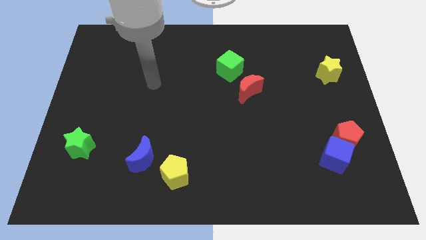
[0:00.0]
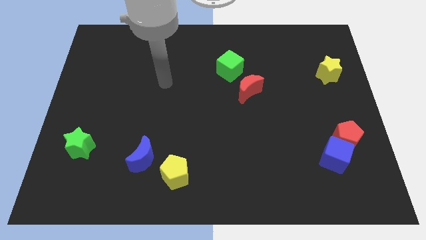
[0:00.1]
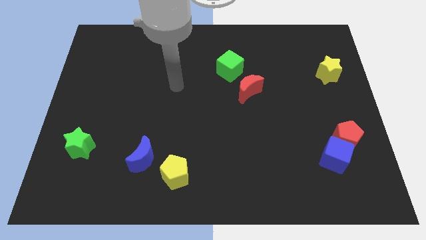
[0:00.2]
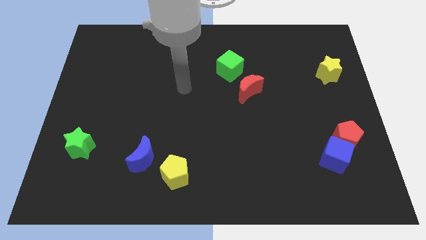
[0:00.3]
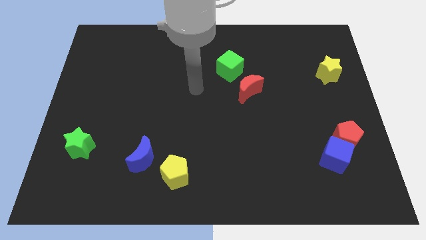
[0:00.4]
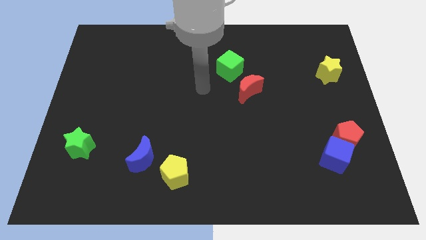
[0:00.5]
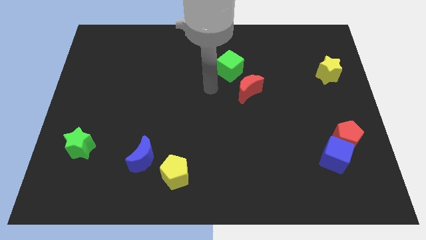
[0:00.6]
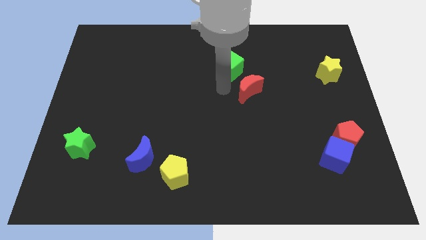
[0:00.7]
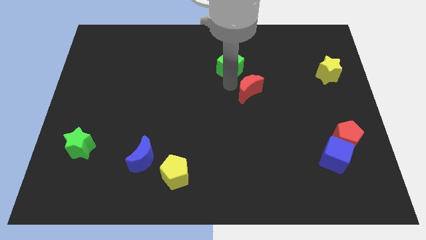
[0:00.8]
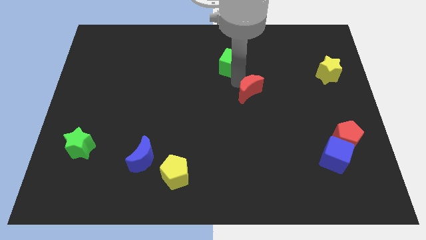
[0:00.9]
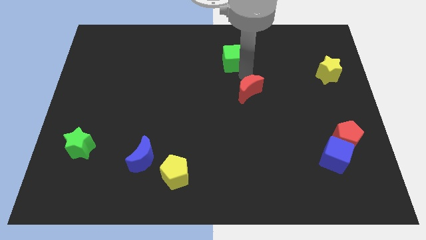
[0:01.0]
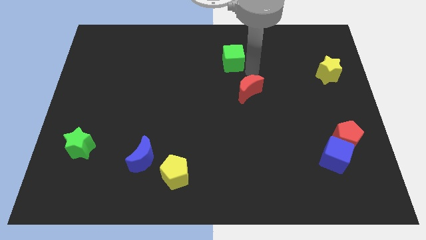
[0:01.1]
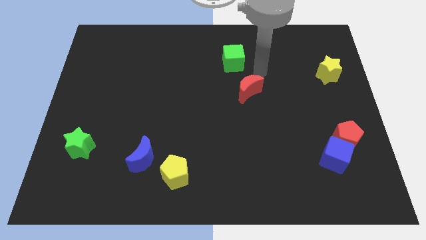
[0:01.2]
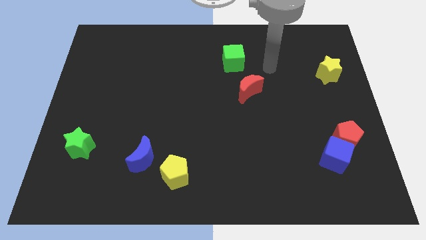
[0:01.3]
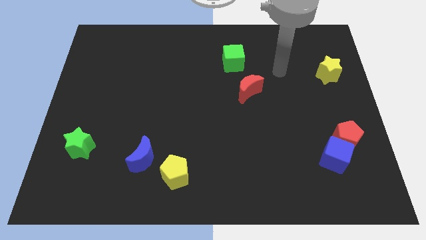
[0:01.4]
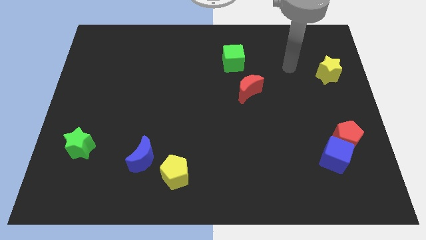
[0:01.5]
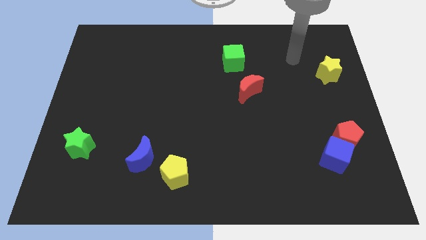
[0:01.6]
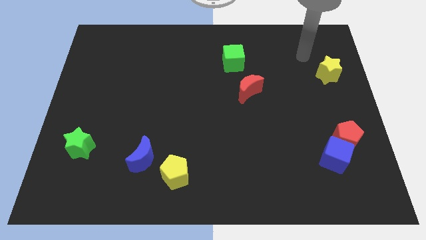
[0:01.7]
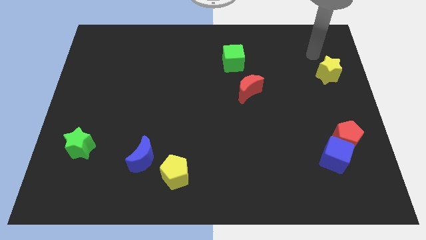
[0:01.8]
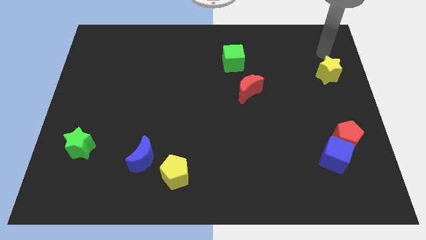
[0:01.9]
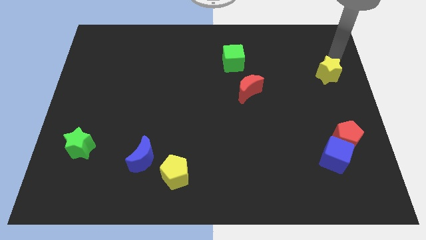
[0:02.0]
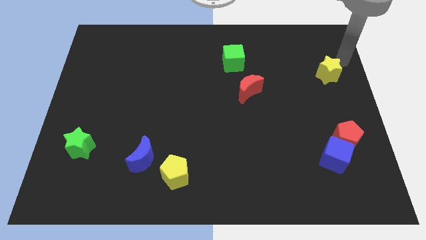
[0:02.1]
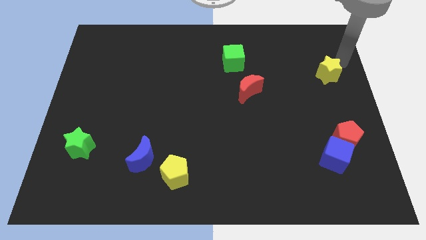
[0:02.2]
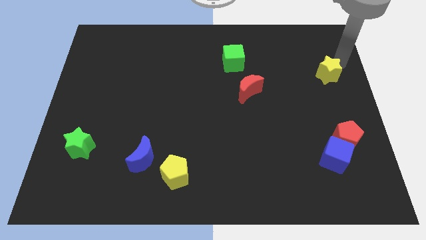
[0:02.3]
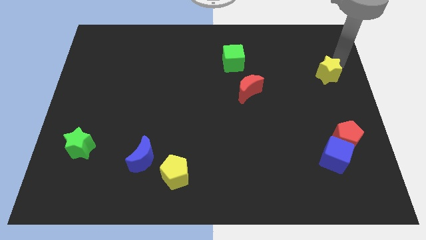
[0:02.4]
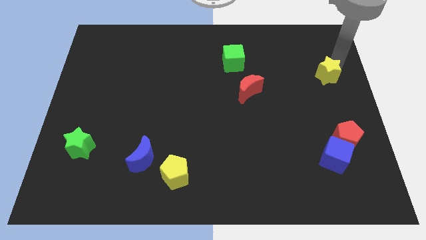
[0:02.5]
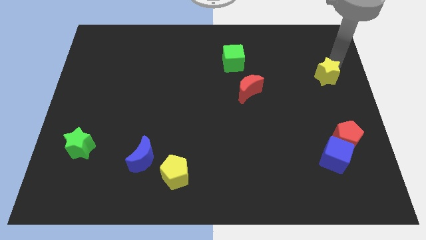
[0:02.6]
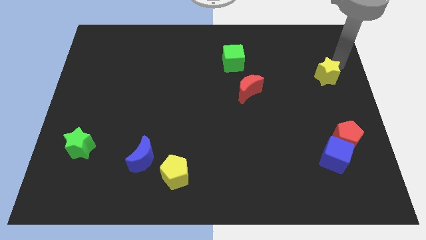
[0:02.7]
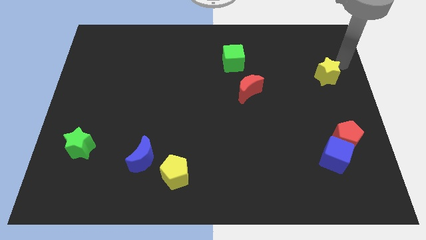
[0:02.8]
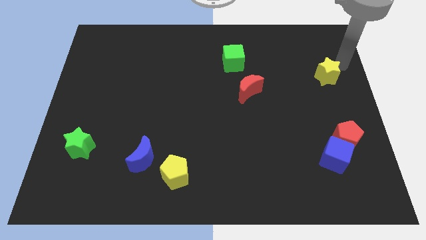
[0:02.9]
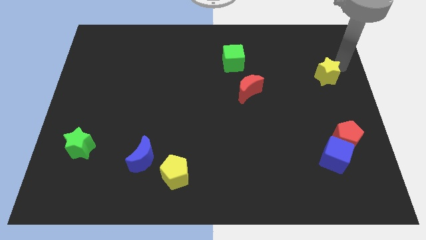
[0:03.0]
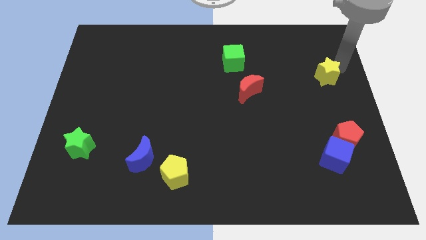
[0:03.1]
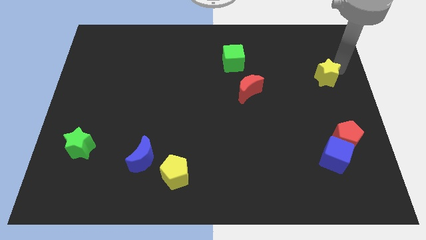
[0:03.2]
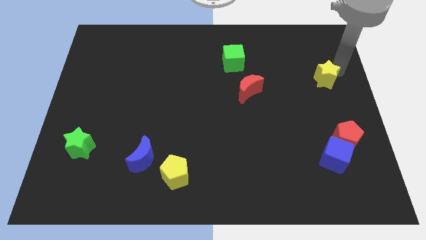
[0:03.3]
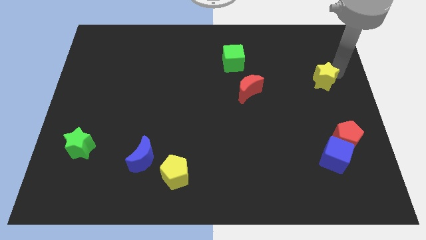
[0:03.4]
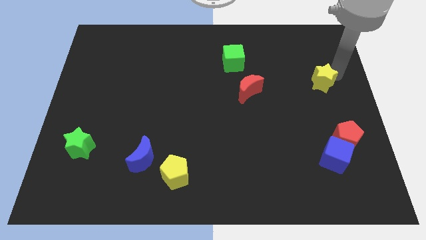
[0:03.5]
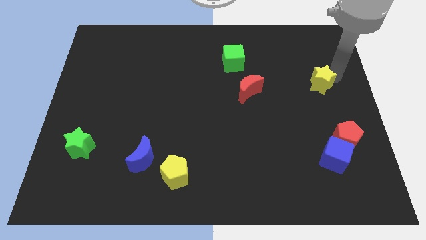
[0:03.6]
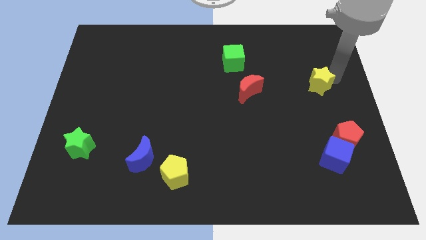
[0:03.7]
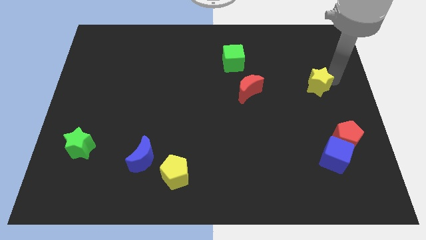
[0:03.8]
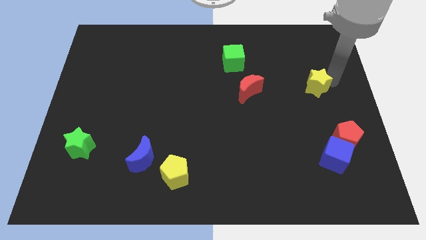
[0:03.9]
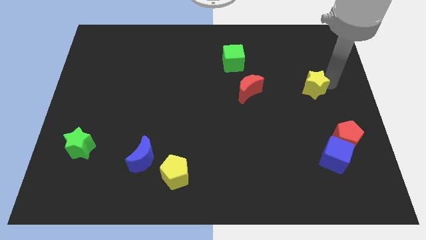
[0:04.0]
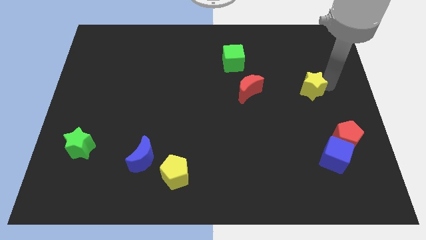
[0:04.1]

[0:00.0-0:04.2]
slightly push the yellow star diagonally down and left

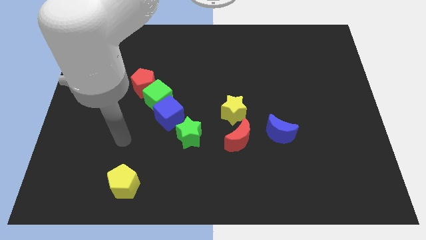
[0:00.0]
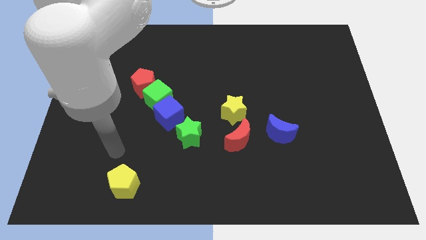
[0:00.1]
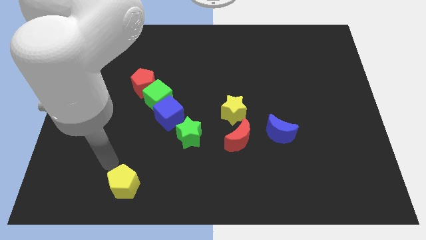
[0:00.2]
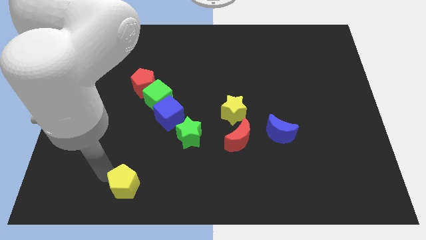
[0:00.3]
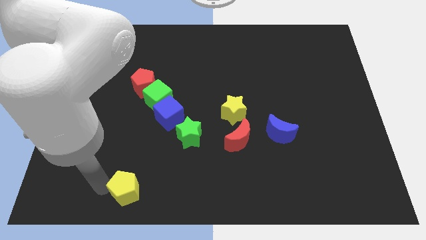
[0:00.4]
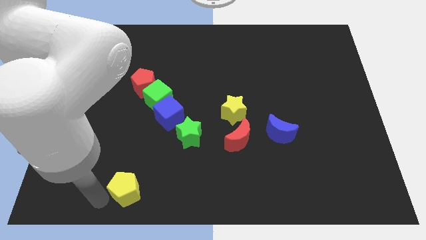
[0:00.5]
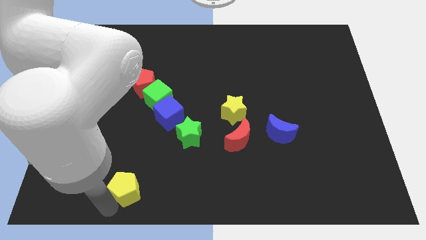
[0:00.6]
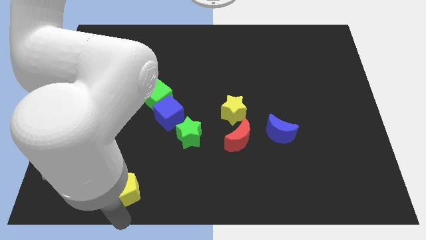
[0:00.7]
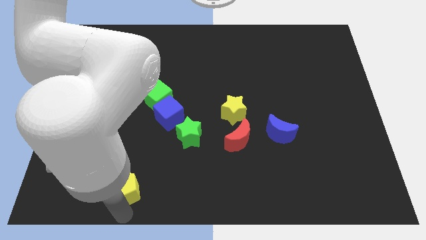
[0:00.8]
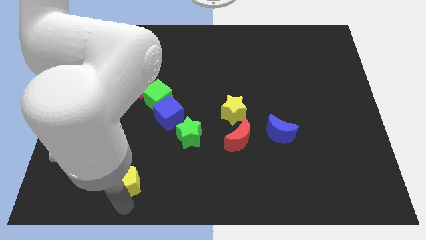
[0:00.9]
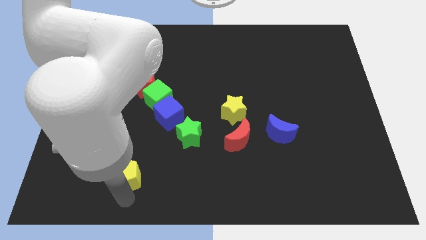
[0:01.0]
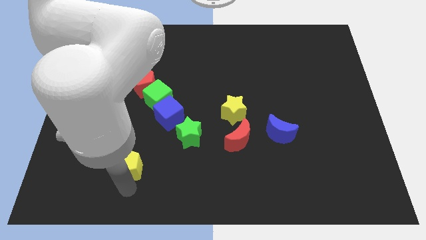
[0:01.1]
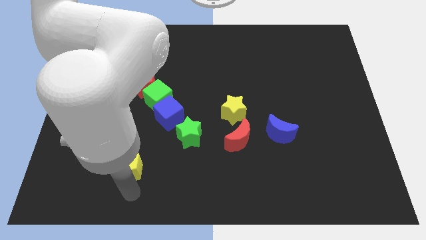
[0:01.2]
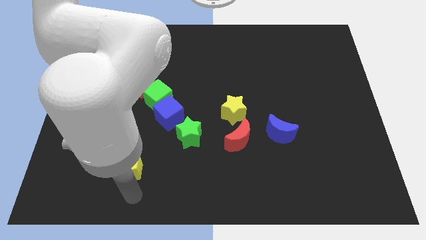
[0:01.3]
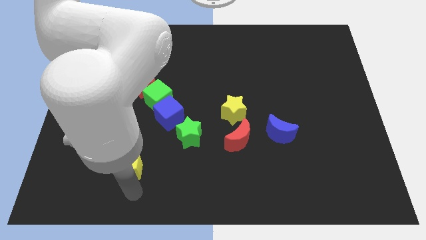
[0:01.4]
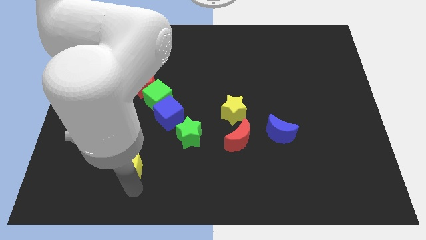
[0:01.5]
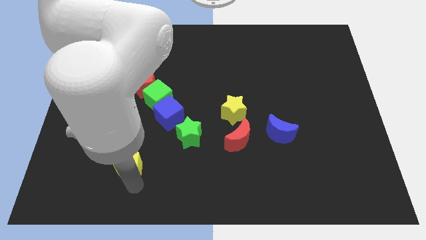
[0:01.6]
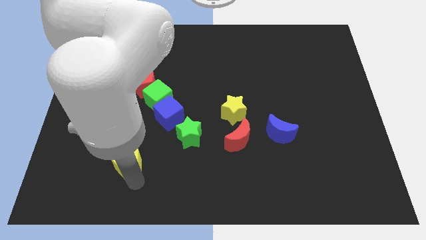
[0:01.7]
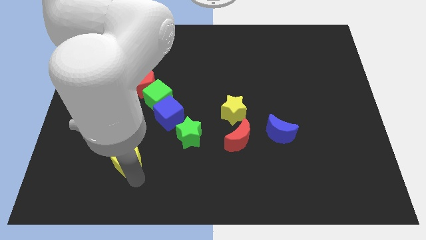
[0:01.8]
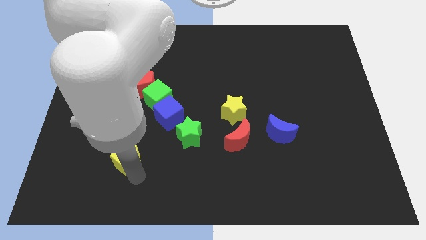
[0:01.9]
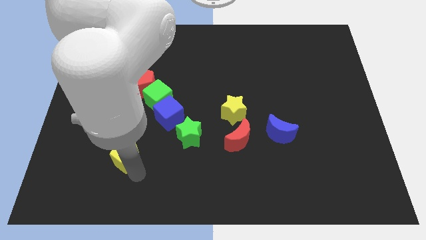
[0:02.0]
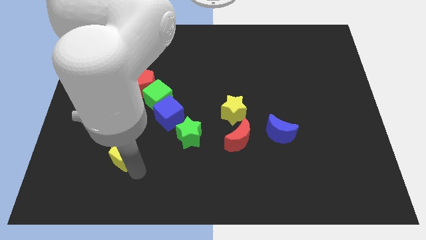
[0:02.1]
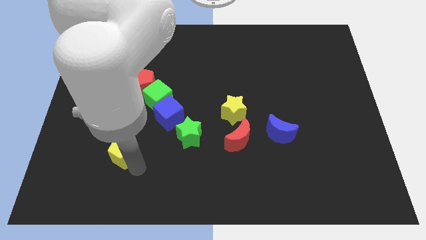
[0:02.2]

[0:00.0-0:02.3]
push the yellow pentagon a bit upwards

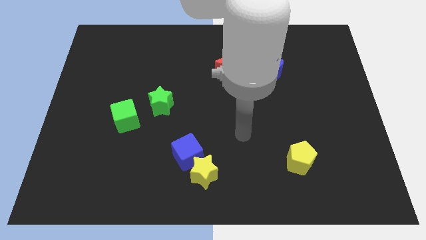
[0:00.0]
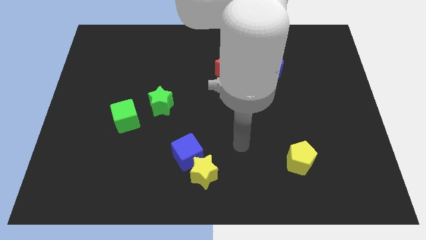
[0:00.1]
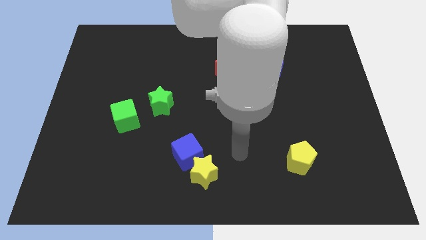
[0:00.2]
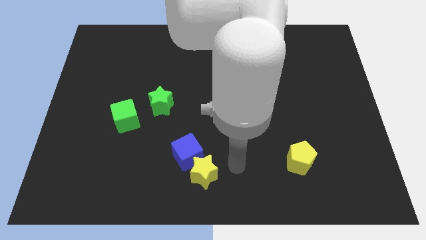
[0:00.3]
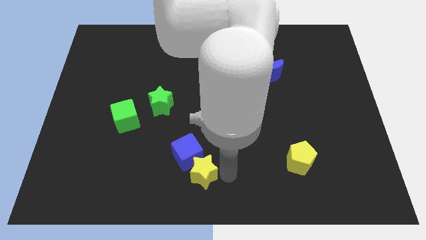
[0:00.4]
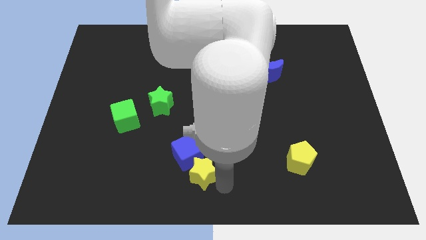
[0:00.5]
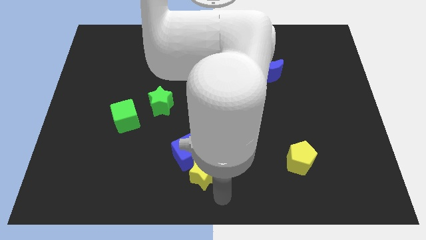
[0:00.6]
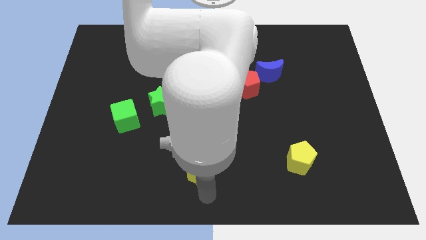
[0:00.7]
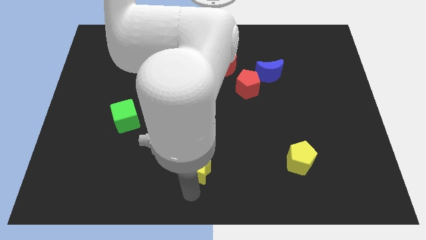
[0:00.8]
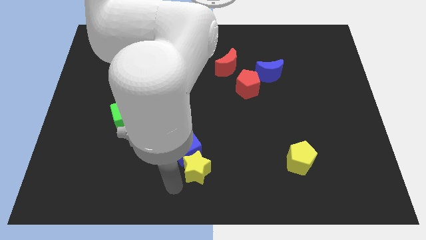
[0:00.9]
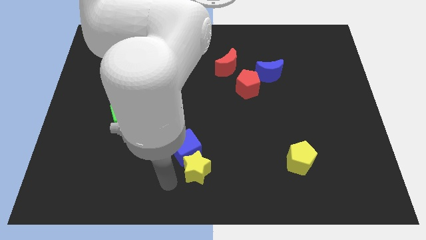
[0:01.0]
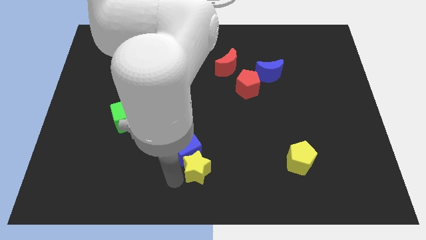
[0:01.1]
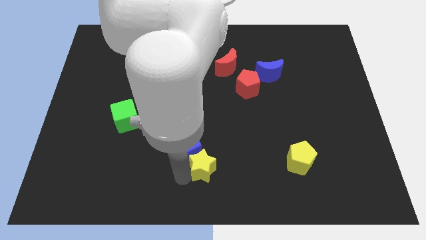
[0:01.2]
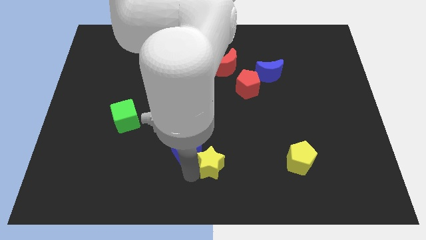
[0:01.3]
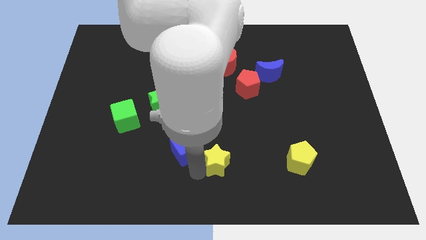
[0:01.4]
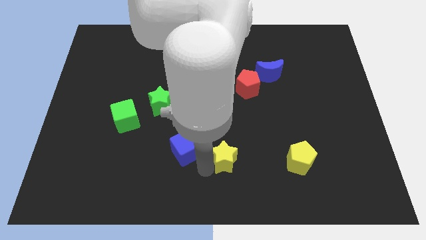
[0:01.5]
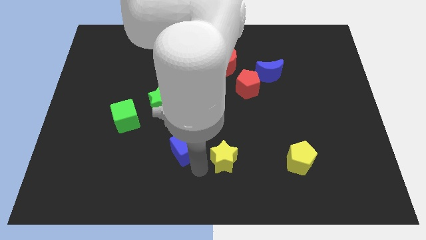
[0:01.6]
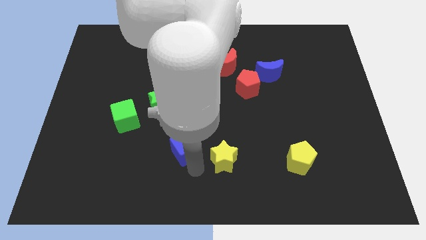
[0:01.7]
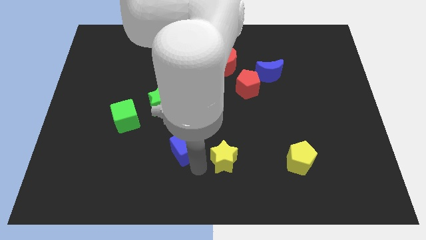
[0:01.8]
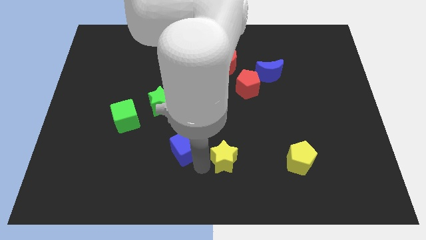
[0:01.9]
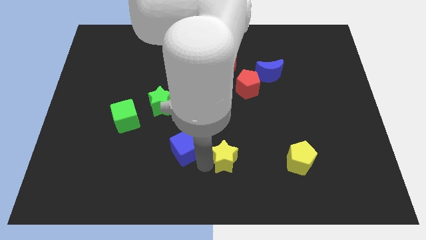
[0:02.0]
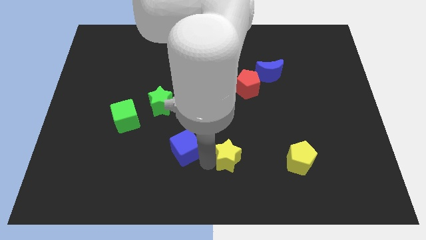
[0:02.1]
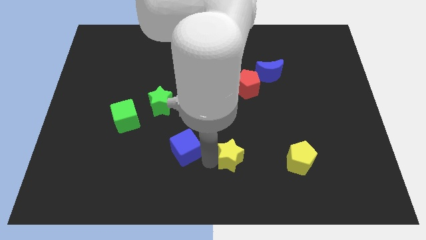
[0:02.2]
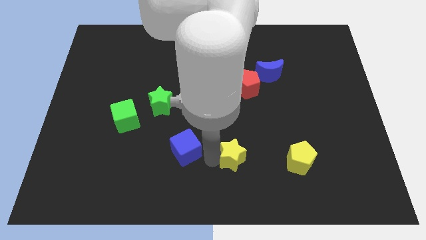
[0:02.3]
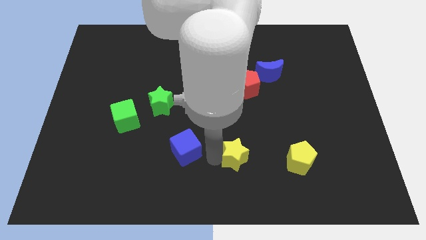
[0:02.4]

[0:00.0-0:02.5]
push the yellow star slightly upwards and to the right
